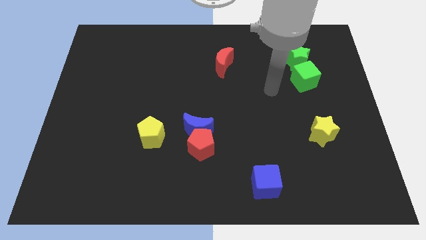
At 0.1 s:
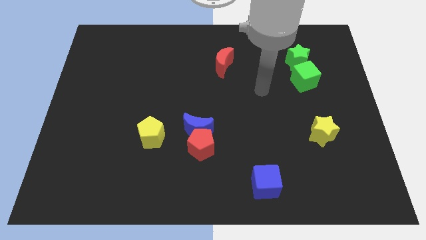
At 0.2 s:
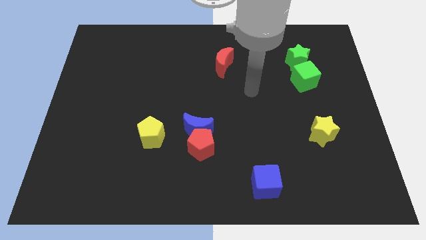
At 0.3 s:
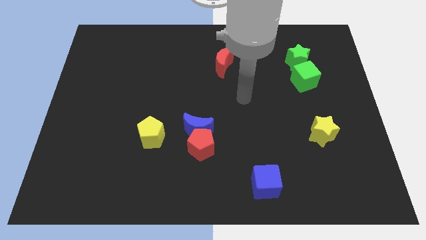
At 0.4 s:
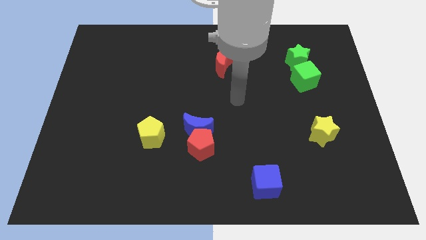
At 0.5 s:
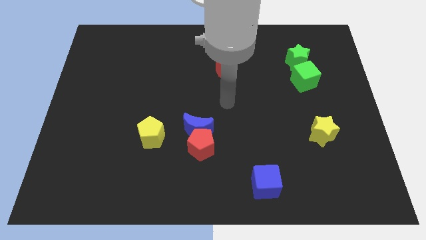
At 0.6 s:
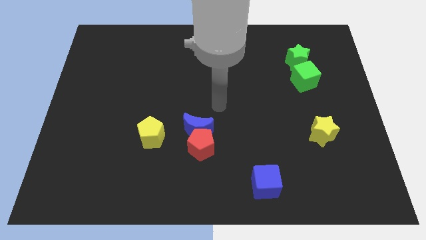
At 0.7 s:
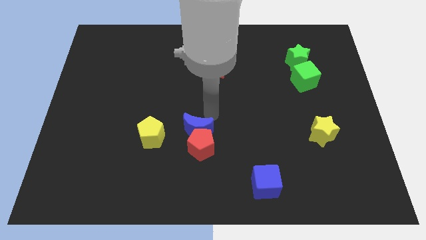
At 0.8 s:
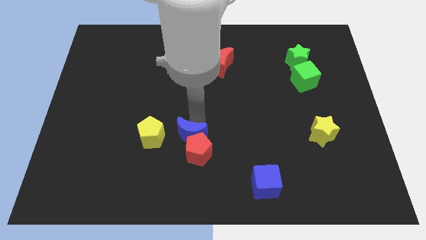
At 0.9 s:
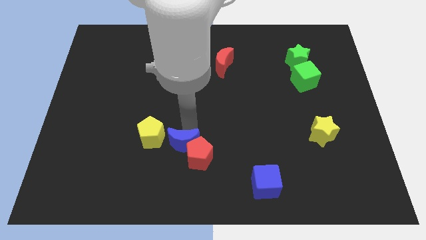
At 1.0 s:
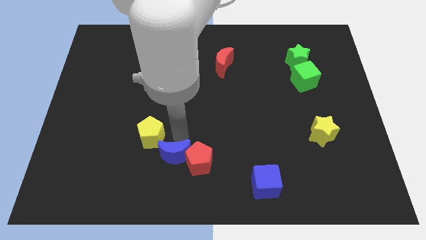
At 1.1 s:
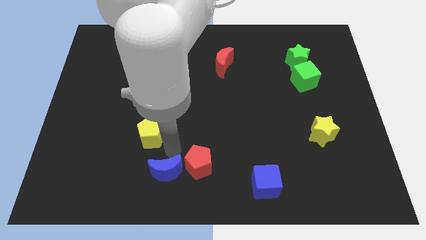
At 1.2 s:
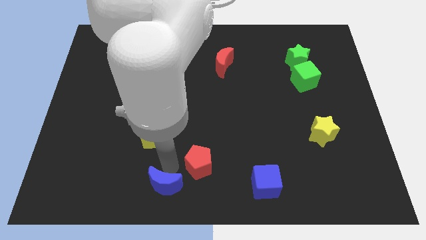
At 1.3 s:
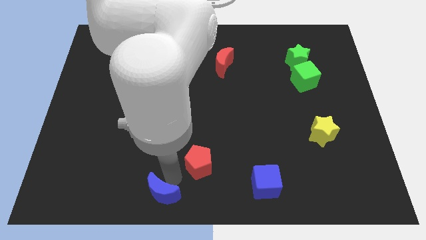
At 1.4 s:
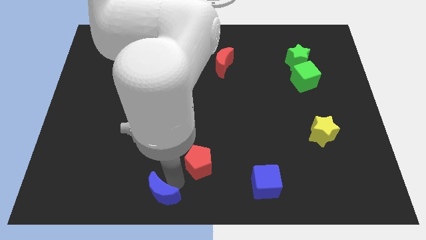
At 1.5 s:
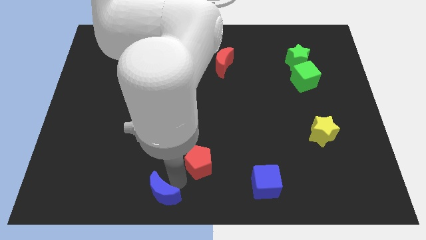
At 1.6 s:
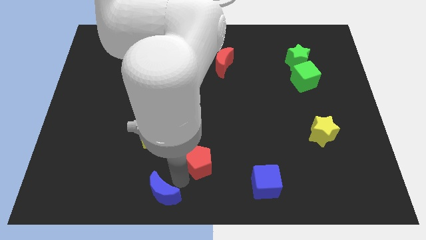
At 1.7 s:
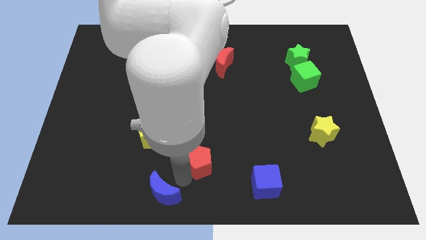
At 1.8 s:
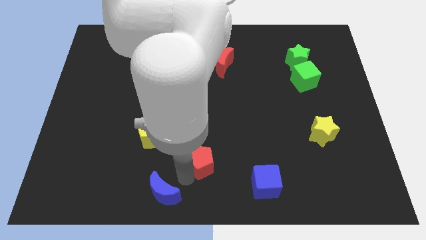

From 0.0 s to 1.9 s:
separate the red pentagon from the blue moon

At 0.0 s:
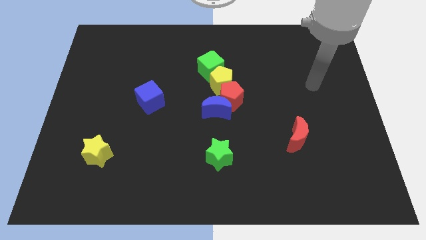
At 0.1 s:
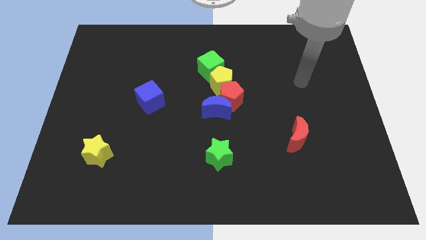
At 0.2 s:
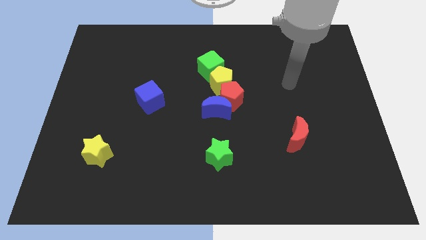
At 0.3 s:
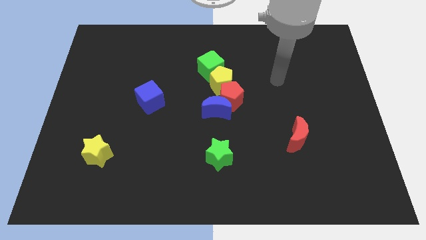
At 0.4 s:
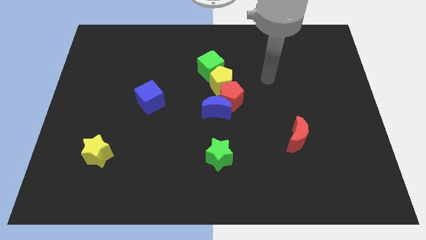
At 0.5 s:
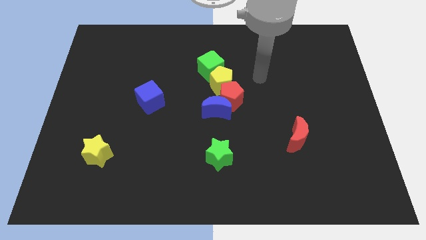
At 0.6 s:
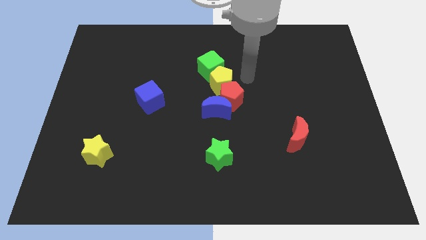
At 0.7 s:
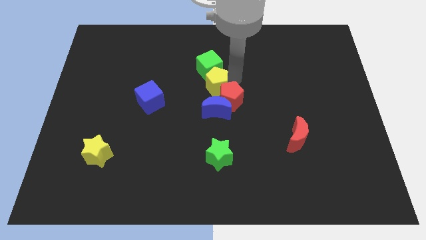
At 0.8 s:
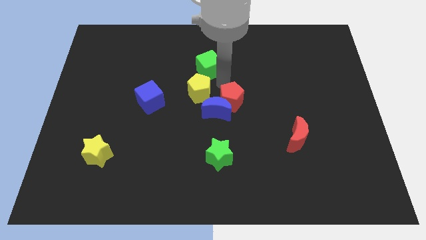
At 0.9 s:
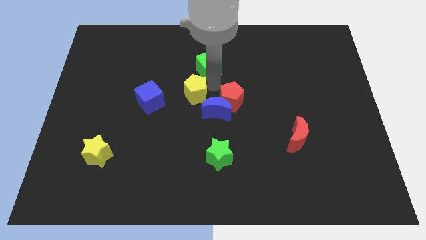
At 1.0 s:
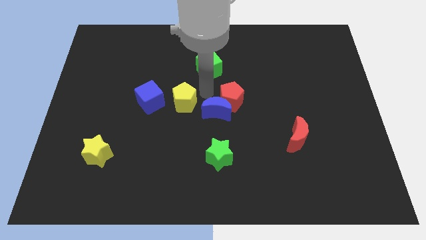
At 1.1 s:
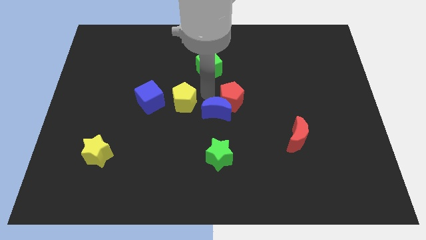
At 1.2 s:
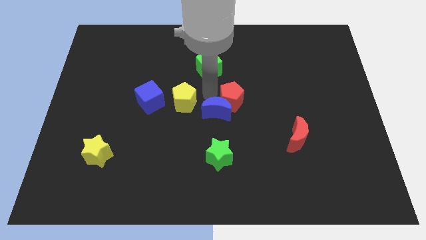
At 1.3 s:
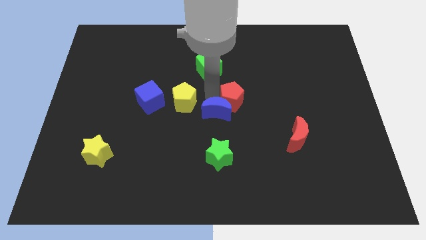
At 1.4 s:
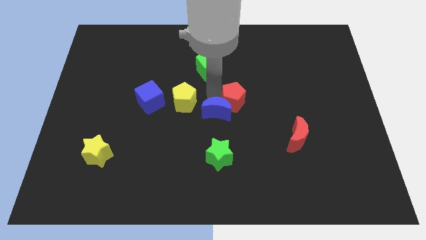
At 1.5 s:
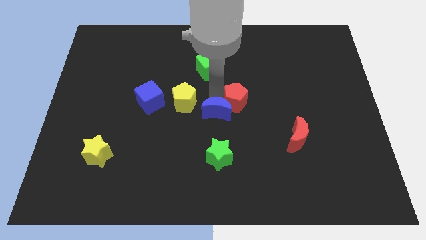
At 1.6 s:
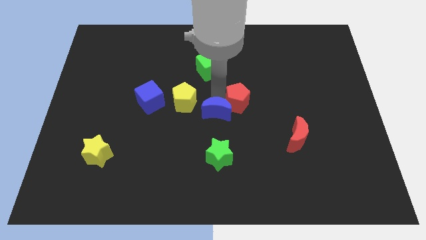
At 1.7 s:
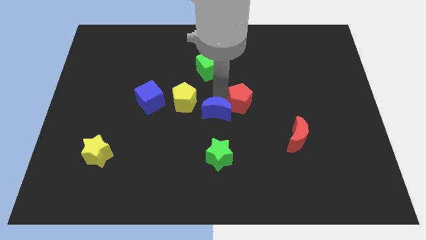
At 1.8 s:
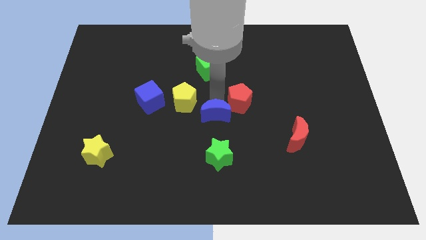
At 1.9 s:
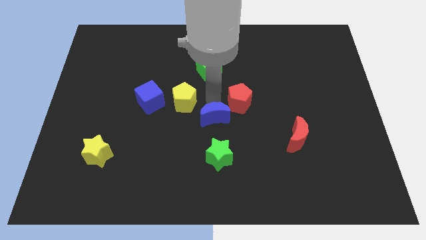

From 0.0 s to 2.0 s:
separate the red pentagon from the blue moon and yellow pentagon

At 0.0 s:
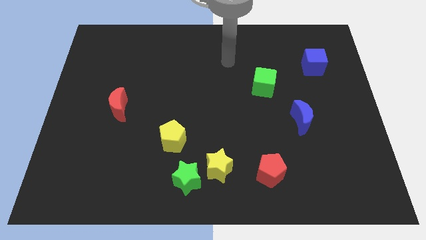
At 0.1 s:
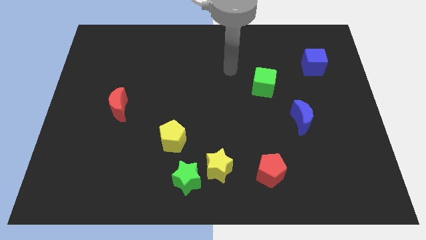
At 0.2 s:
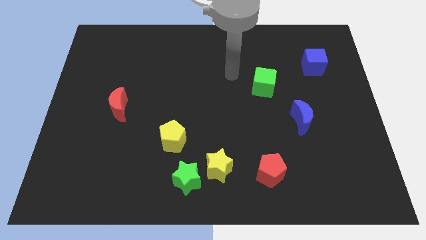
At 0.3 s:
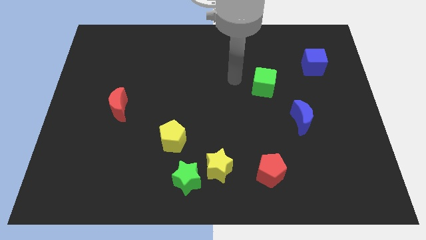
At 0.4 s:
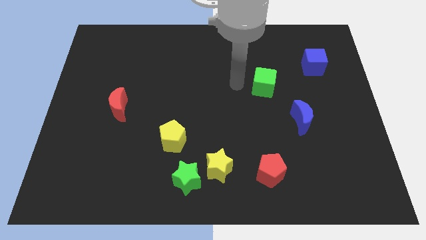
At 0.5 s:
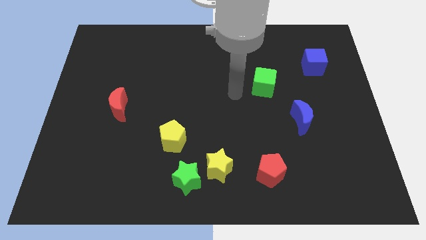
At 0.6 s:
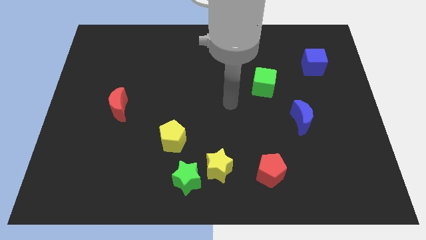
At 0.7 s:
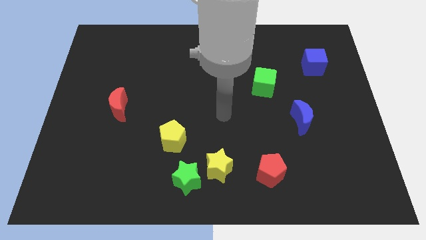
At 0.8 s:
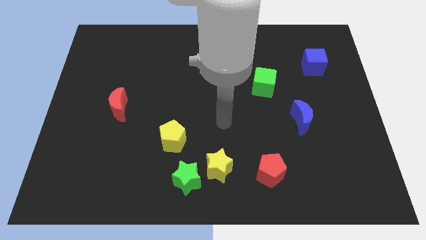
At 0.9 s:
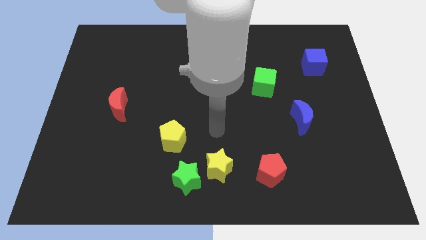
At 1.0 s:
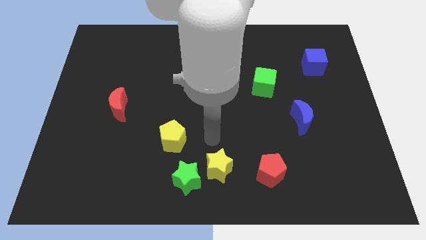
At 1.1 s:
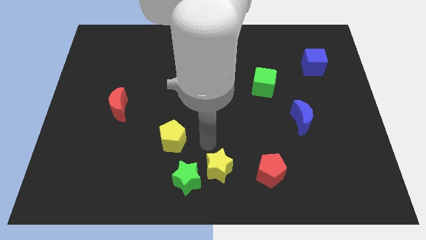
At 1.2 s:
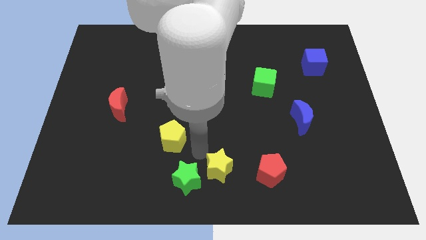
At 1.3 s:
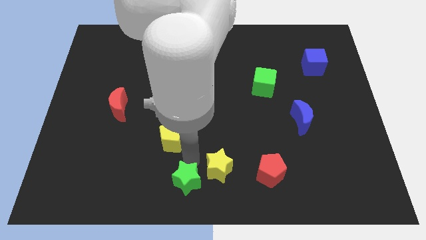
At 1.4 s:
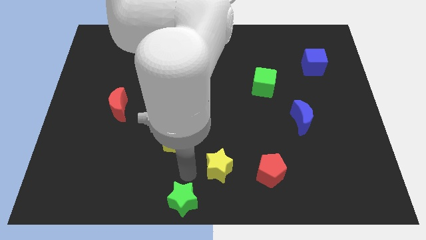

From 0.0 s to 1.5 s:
move the yellow star away from the green star

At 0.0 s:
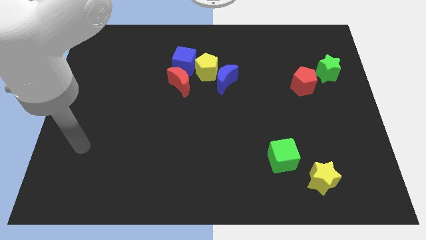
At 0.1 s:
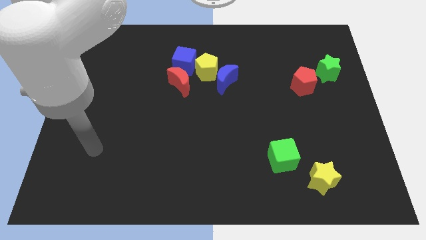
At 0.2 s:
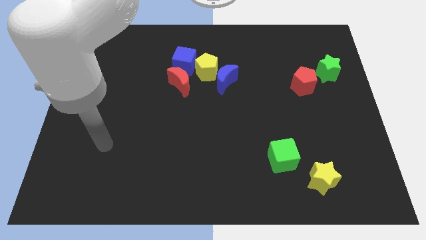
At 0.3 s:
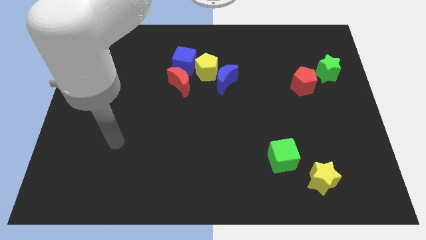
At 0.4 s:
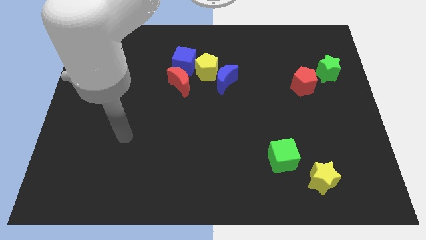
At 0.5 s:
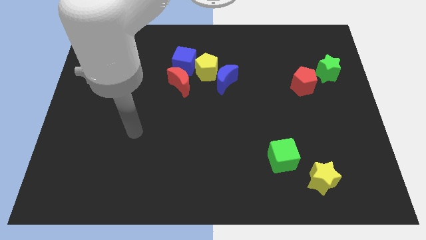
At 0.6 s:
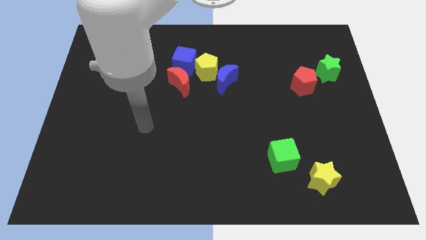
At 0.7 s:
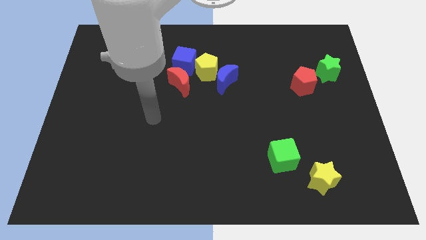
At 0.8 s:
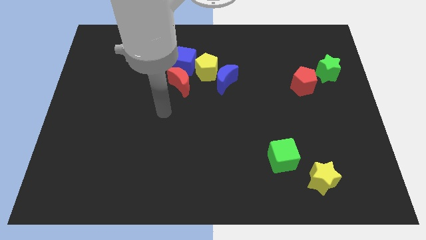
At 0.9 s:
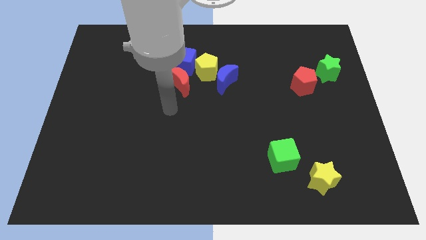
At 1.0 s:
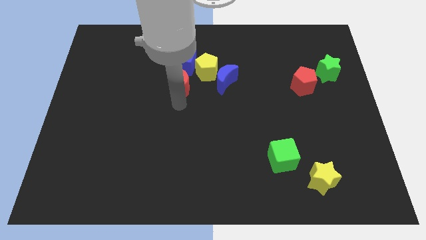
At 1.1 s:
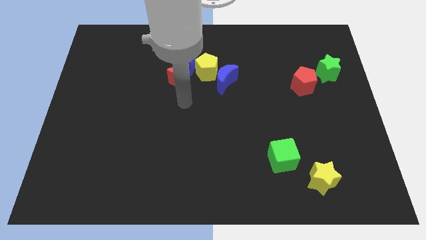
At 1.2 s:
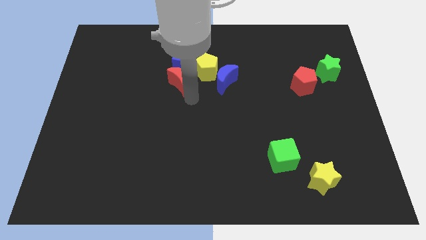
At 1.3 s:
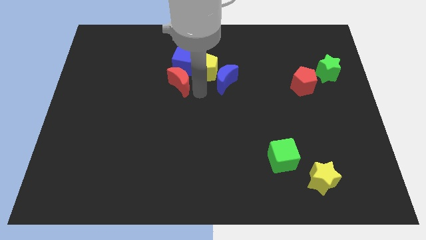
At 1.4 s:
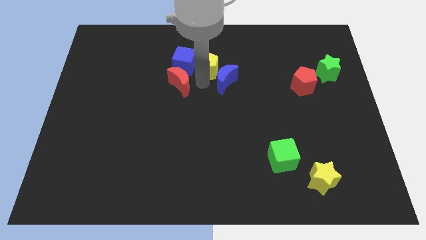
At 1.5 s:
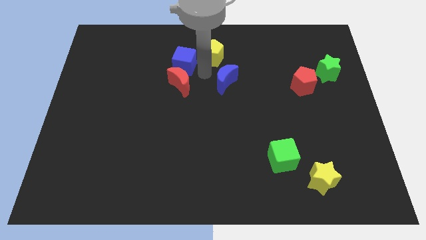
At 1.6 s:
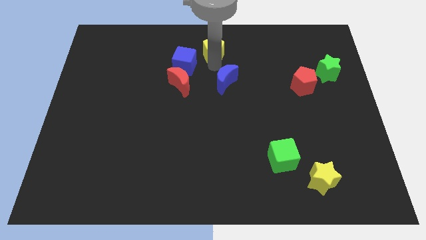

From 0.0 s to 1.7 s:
move the blue moon away from the yellow pentagon

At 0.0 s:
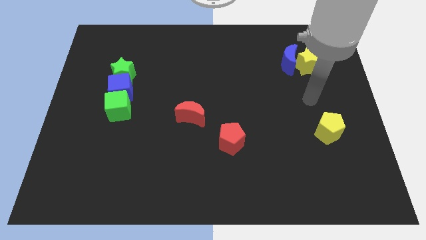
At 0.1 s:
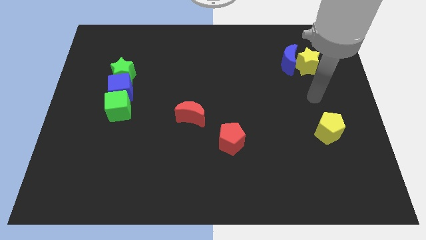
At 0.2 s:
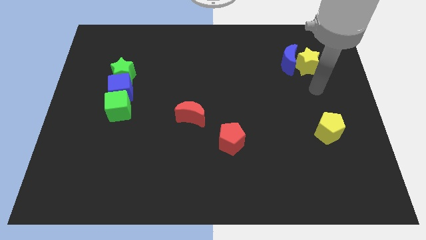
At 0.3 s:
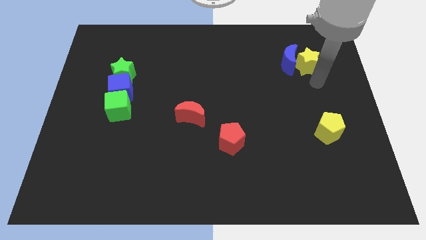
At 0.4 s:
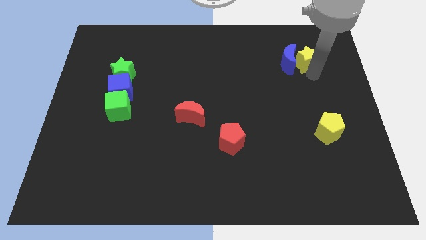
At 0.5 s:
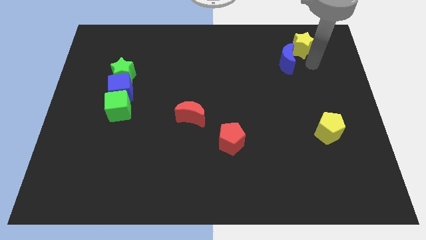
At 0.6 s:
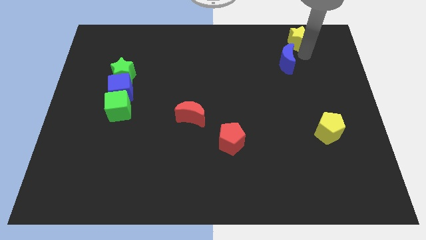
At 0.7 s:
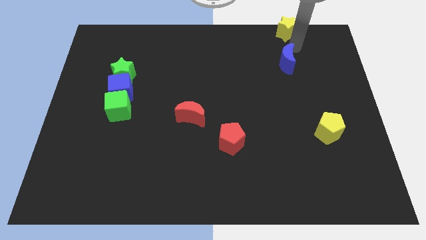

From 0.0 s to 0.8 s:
move the blue moon away from the yellow star

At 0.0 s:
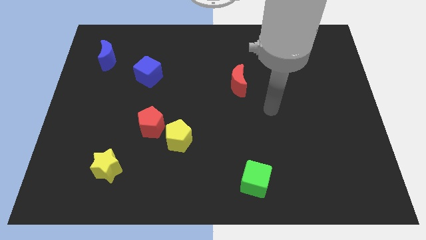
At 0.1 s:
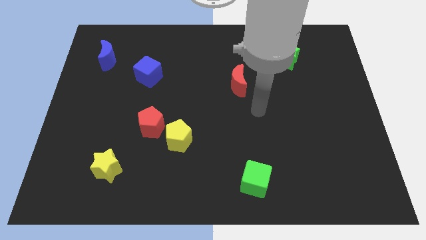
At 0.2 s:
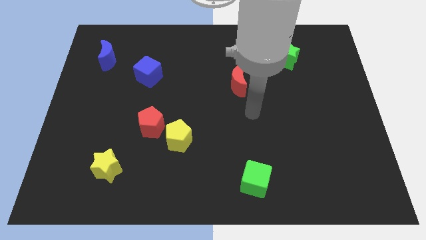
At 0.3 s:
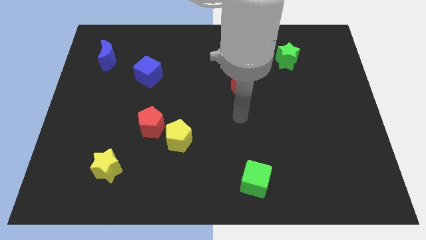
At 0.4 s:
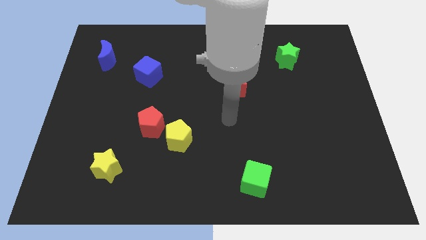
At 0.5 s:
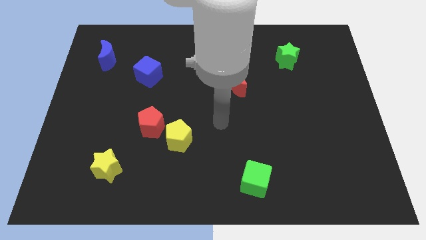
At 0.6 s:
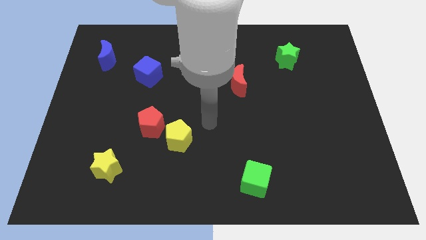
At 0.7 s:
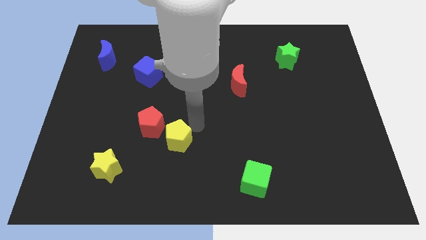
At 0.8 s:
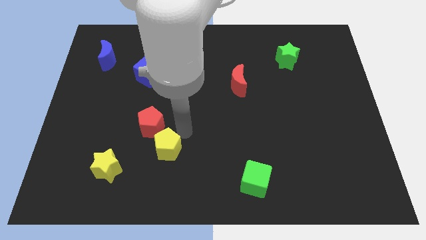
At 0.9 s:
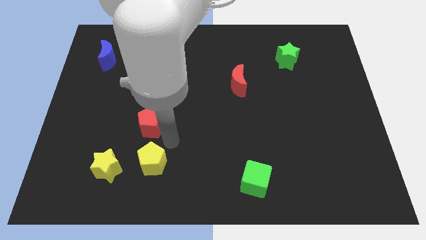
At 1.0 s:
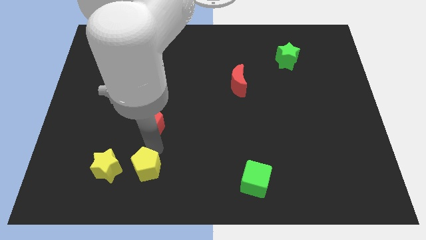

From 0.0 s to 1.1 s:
move the red pentagon away from the yellow pentagon

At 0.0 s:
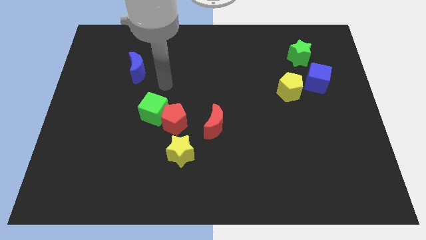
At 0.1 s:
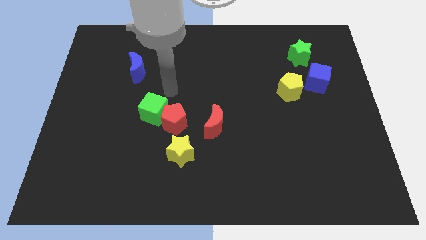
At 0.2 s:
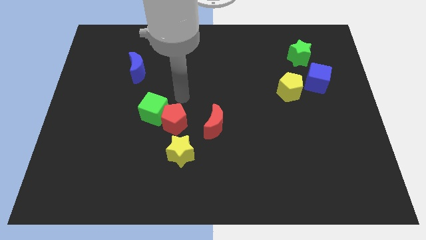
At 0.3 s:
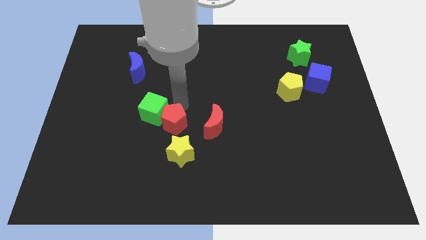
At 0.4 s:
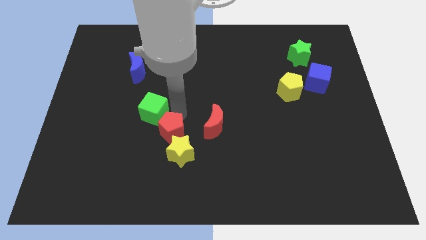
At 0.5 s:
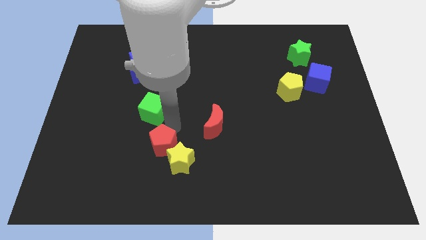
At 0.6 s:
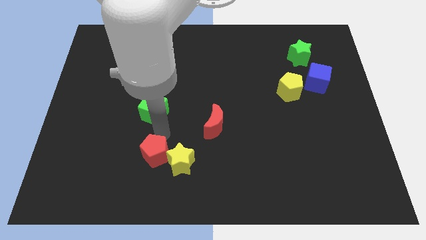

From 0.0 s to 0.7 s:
pull the green cube apart from the red pentagon
